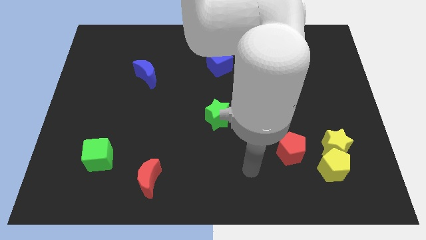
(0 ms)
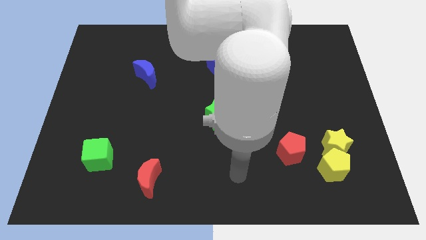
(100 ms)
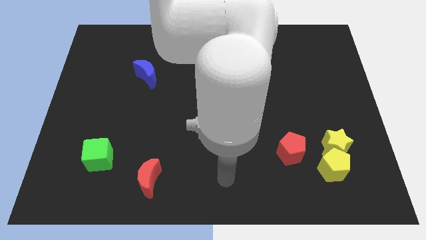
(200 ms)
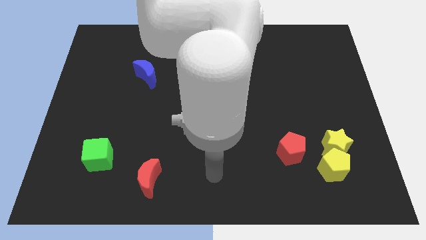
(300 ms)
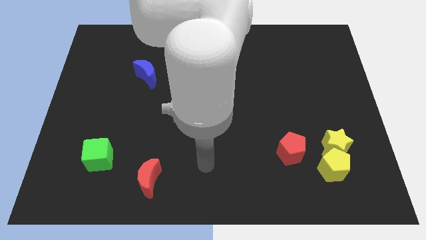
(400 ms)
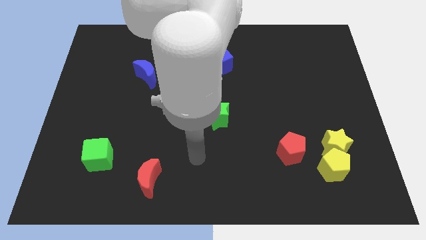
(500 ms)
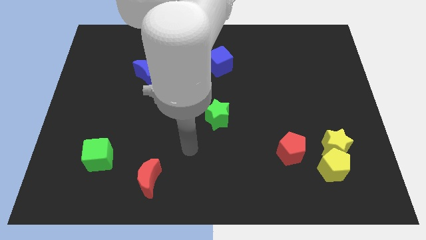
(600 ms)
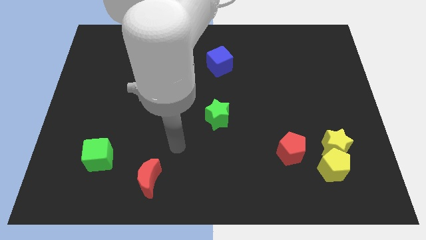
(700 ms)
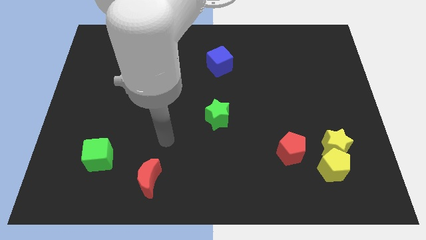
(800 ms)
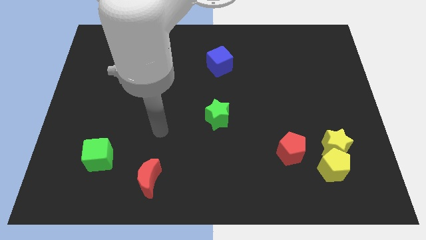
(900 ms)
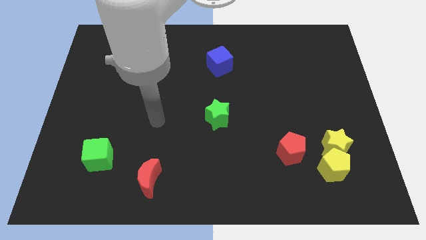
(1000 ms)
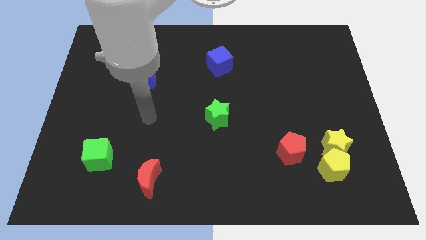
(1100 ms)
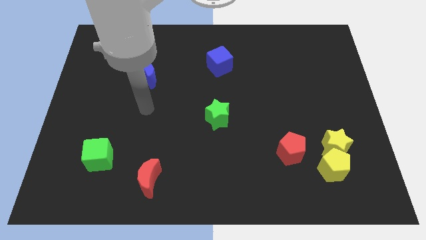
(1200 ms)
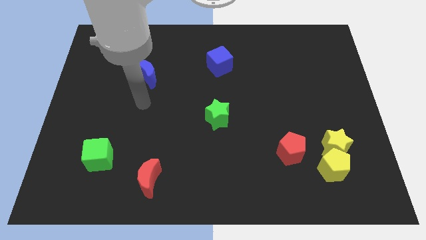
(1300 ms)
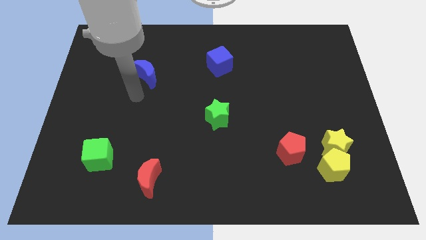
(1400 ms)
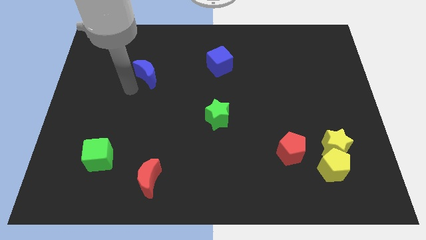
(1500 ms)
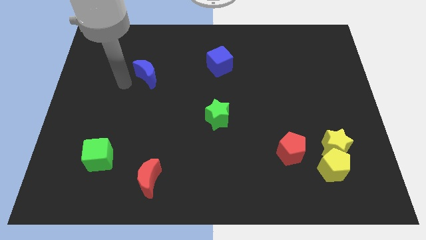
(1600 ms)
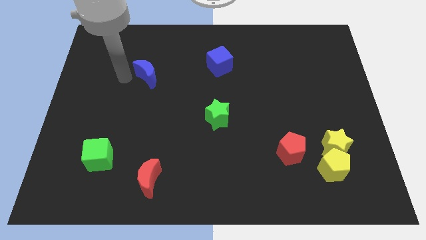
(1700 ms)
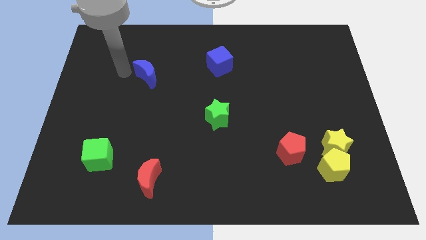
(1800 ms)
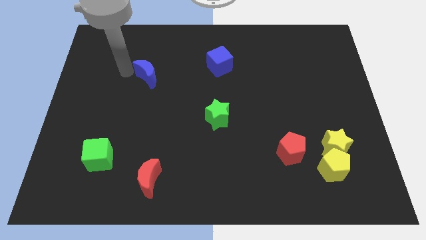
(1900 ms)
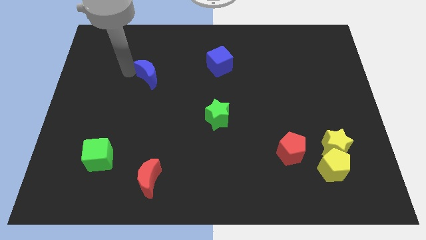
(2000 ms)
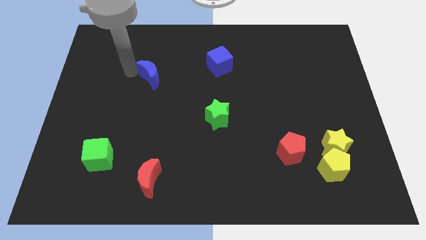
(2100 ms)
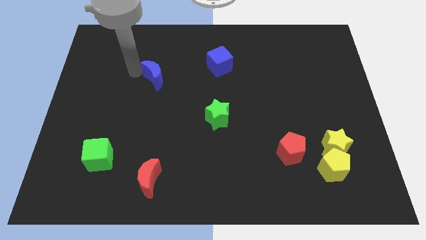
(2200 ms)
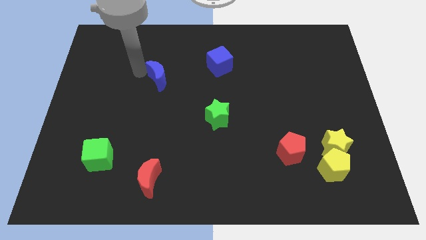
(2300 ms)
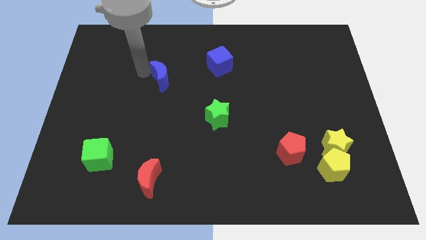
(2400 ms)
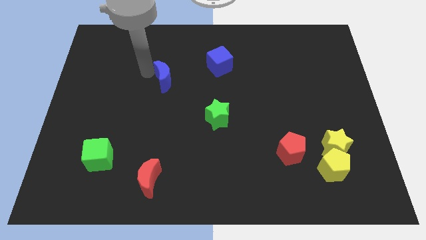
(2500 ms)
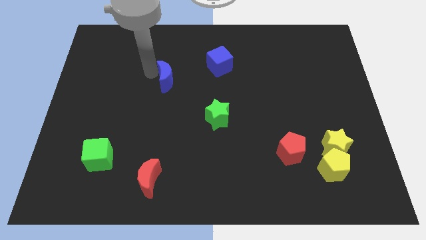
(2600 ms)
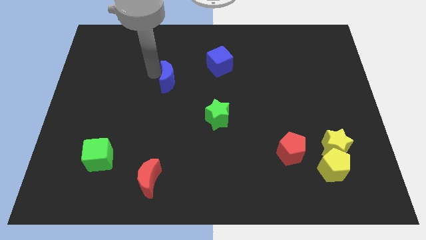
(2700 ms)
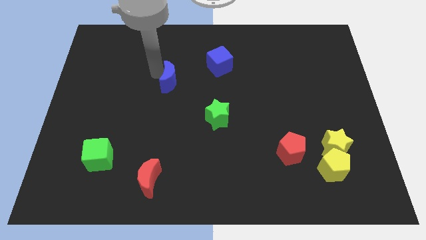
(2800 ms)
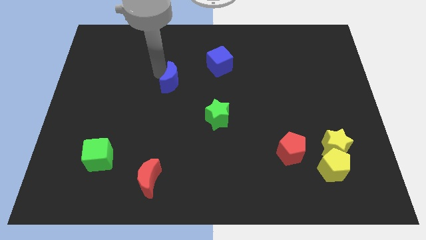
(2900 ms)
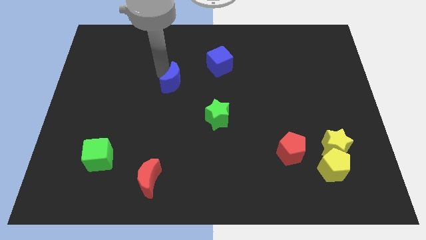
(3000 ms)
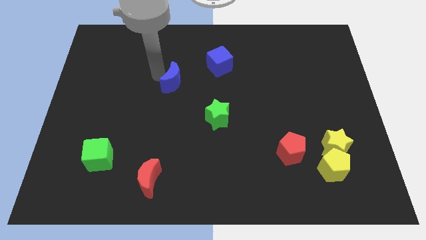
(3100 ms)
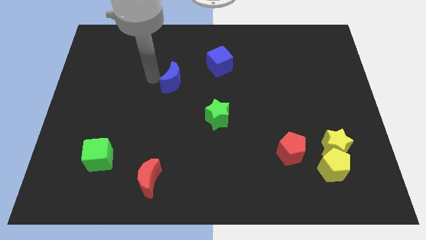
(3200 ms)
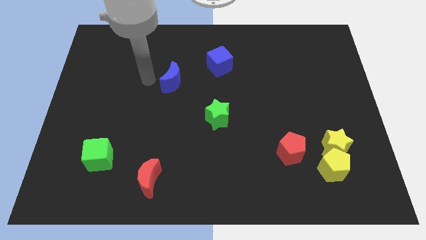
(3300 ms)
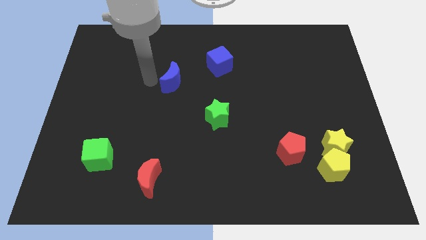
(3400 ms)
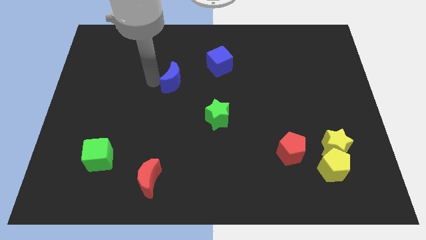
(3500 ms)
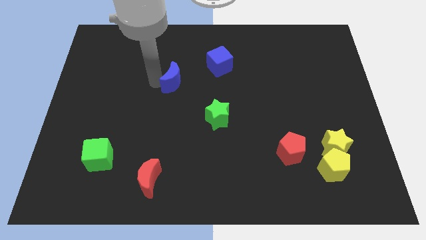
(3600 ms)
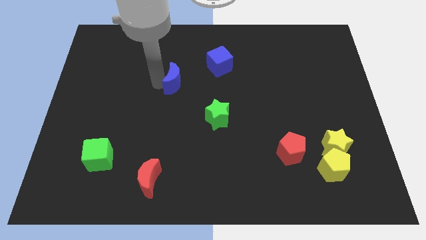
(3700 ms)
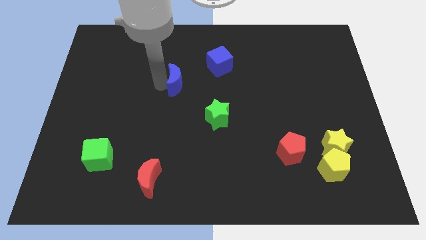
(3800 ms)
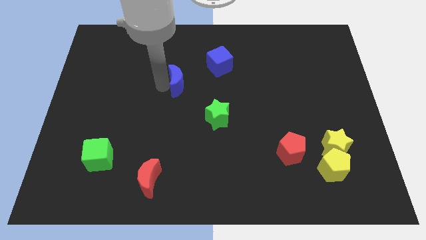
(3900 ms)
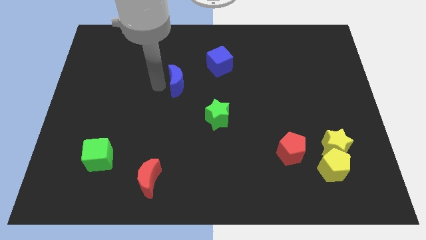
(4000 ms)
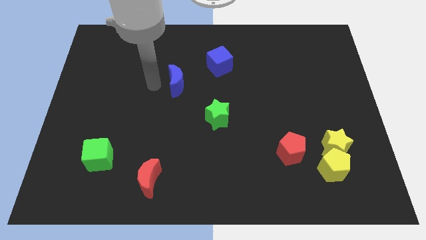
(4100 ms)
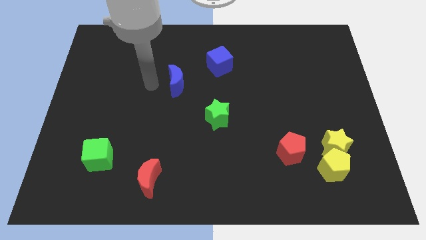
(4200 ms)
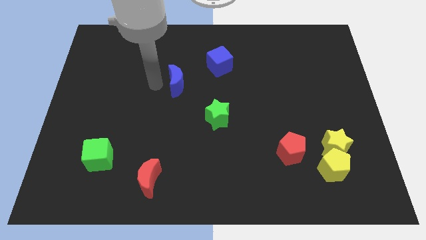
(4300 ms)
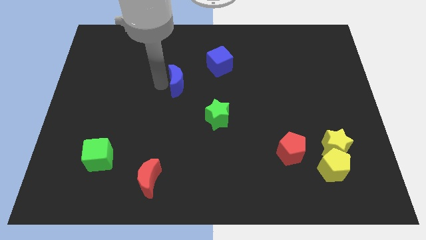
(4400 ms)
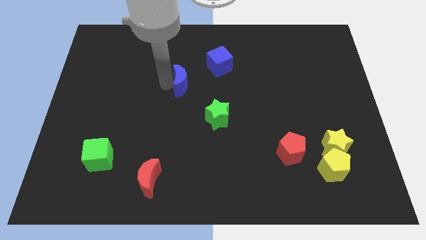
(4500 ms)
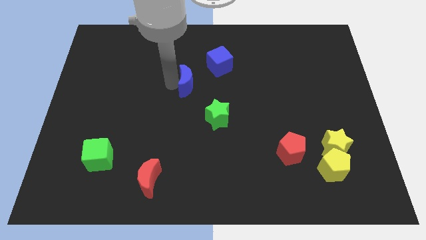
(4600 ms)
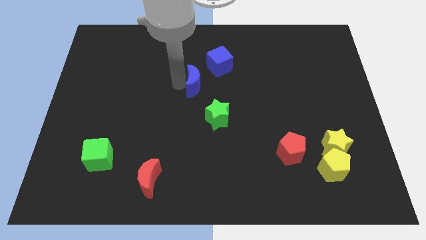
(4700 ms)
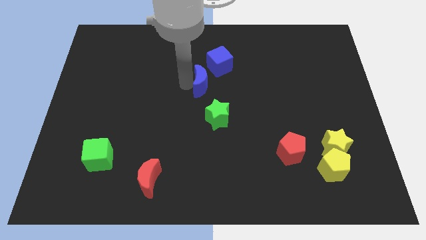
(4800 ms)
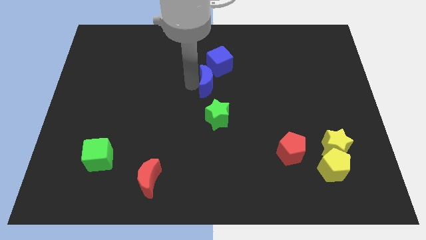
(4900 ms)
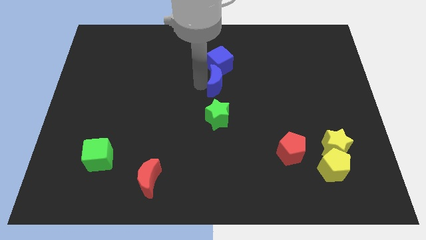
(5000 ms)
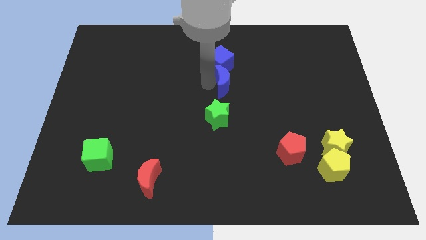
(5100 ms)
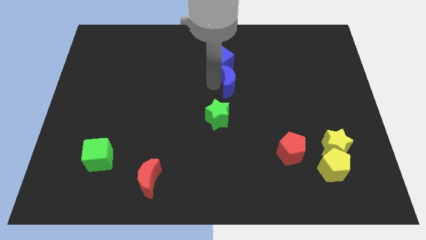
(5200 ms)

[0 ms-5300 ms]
push the blue moon to the right

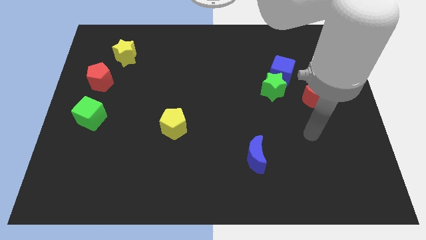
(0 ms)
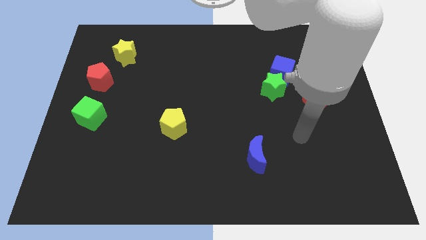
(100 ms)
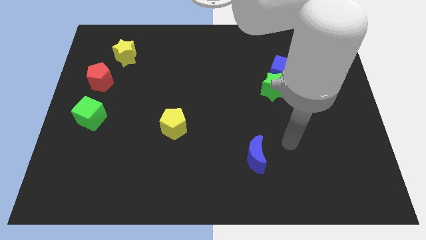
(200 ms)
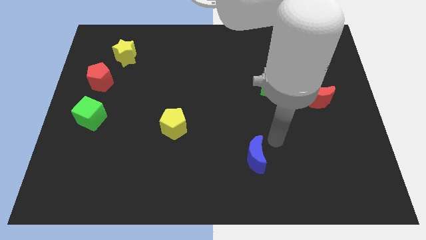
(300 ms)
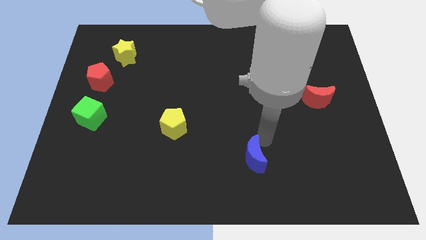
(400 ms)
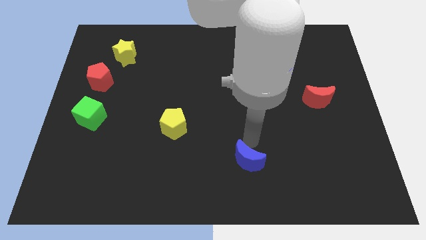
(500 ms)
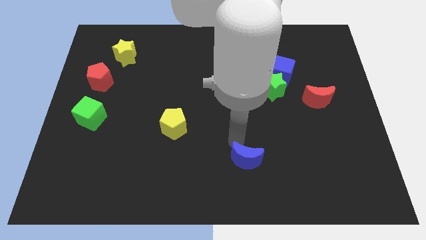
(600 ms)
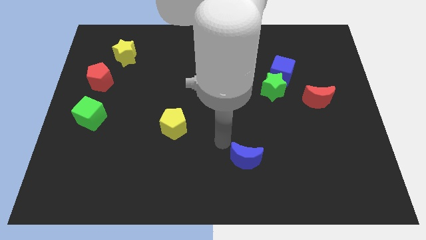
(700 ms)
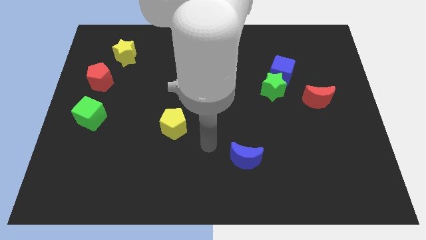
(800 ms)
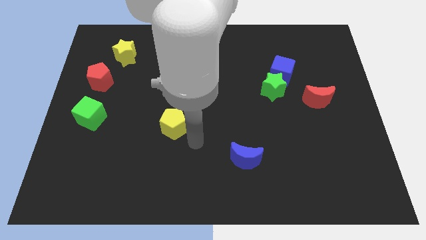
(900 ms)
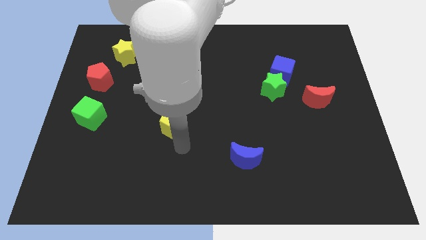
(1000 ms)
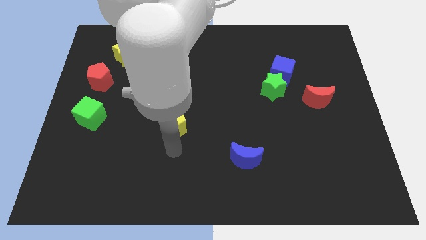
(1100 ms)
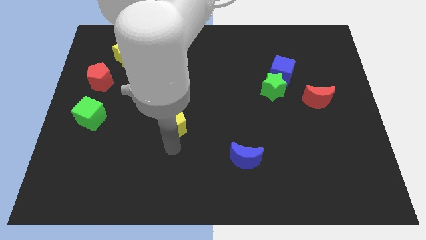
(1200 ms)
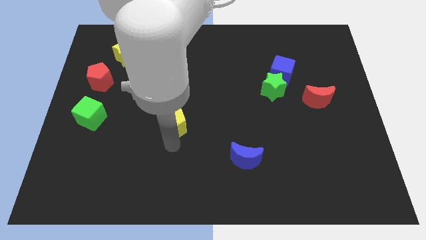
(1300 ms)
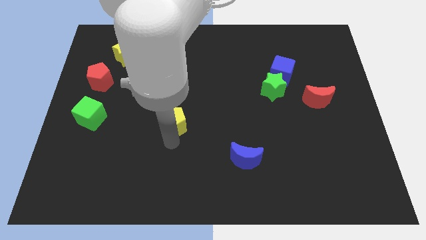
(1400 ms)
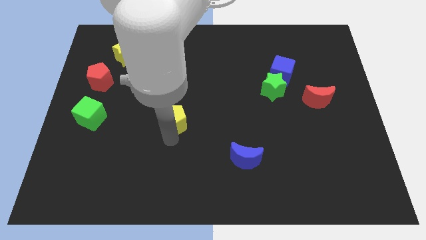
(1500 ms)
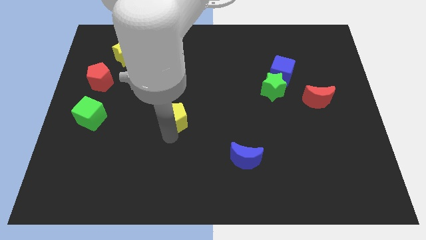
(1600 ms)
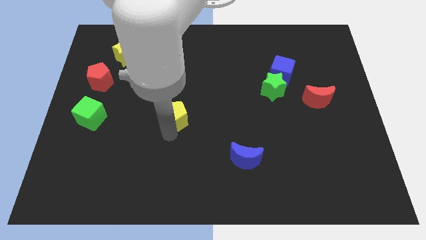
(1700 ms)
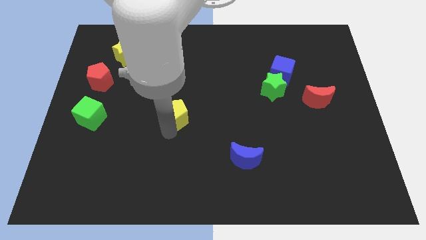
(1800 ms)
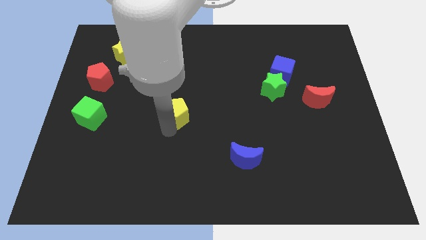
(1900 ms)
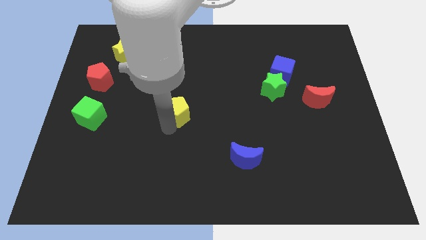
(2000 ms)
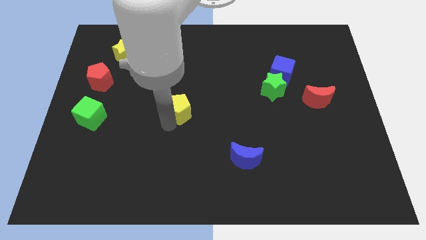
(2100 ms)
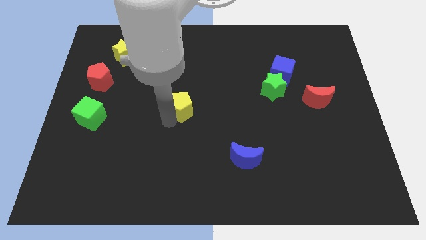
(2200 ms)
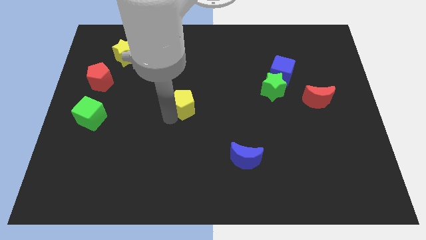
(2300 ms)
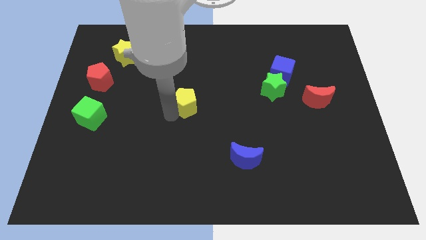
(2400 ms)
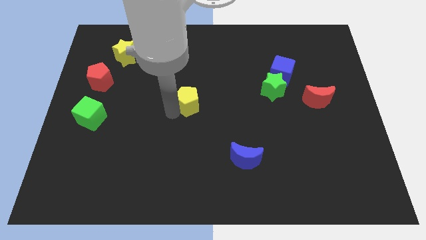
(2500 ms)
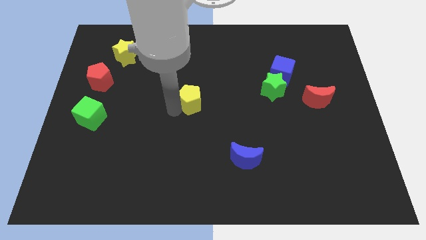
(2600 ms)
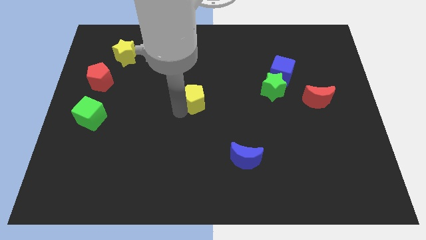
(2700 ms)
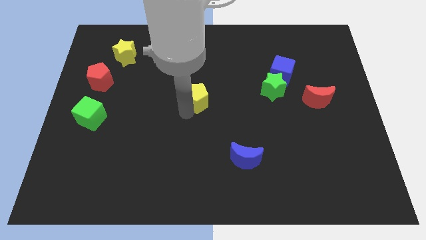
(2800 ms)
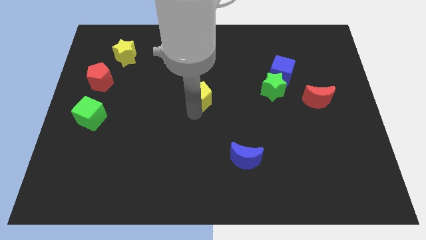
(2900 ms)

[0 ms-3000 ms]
slide the yellow pentagon a little upwards
